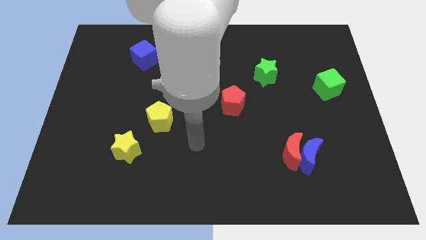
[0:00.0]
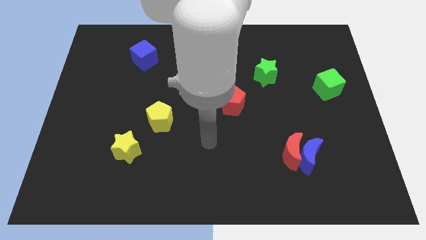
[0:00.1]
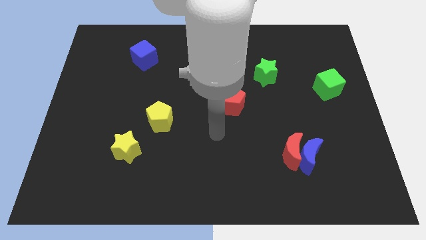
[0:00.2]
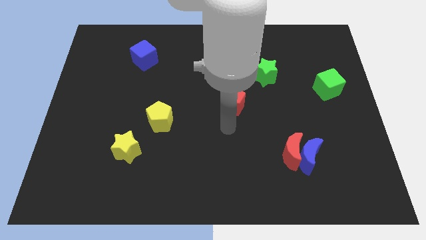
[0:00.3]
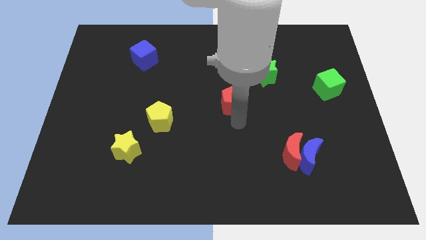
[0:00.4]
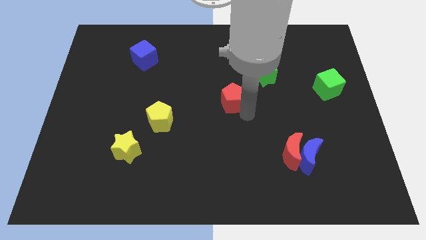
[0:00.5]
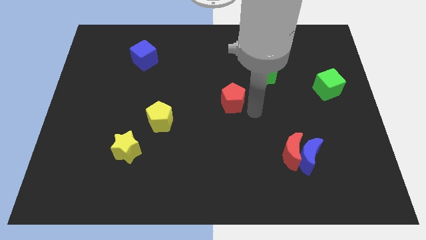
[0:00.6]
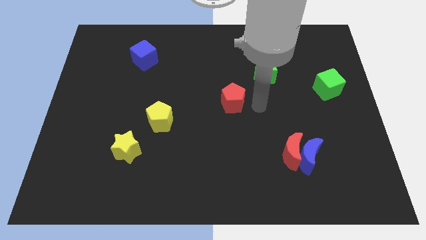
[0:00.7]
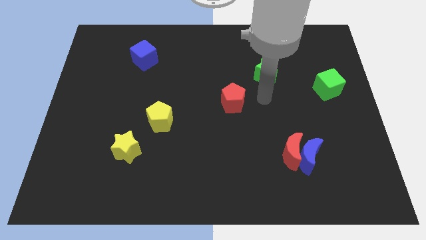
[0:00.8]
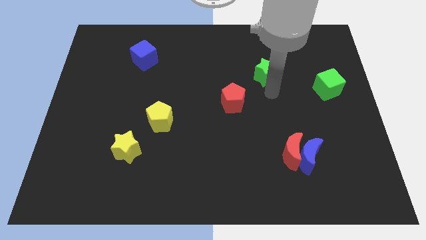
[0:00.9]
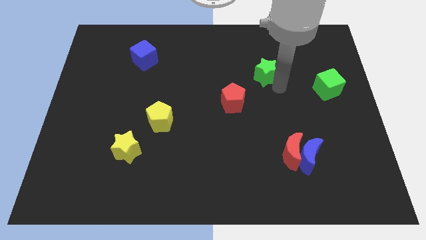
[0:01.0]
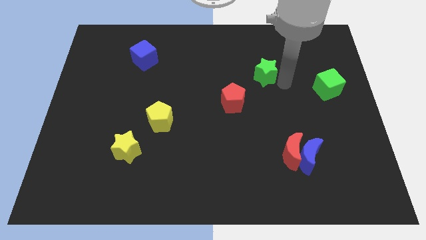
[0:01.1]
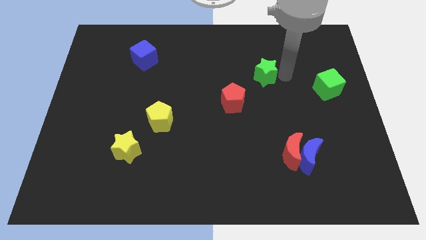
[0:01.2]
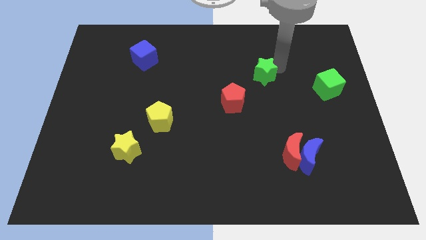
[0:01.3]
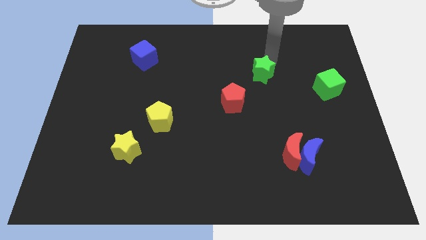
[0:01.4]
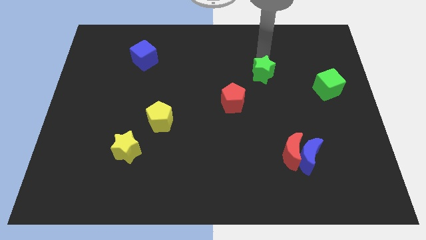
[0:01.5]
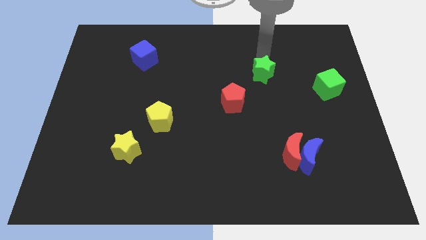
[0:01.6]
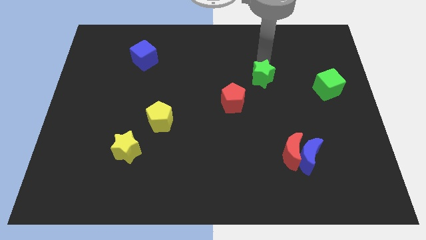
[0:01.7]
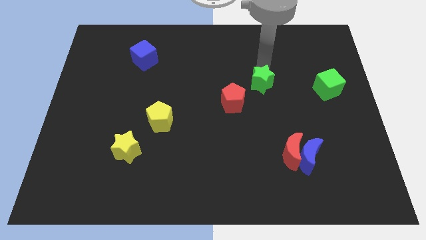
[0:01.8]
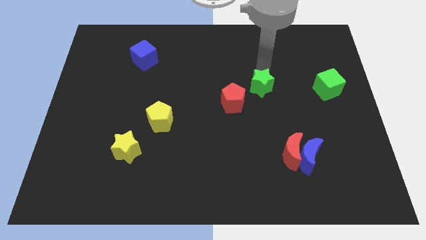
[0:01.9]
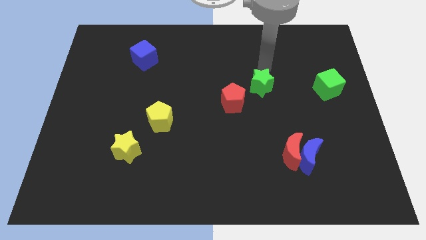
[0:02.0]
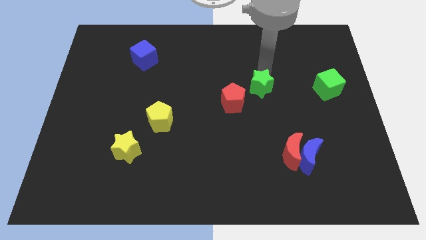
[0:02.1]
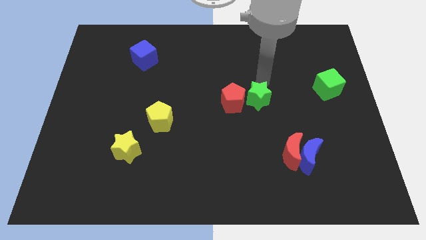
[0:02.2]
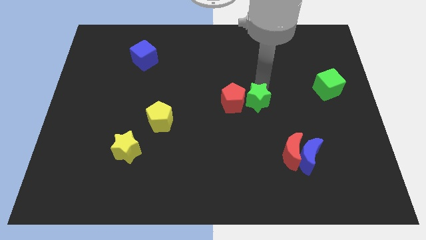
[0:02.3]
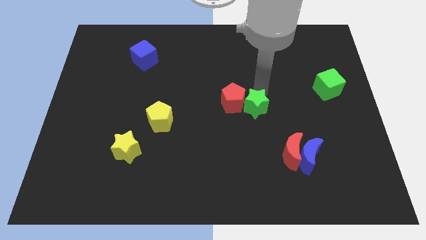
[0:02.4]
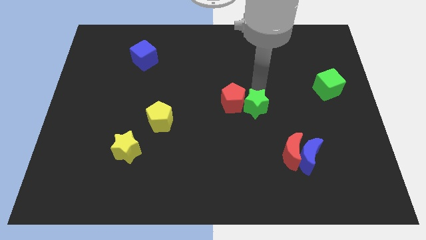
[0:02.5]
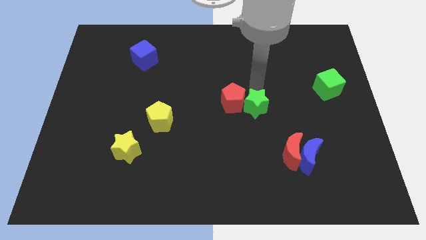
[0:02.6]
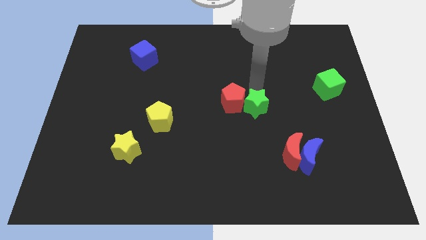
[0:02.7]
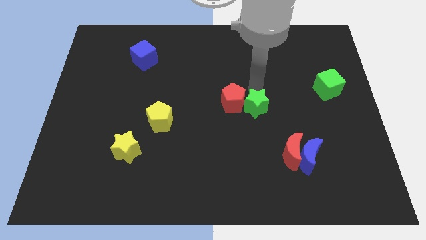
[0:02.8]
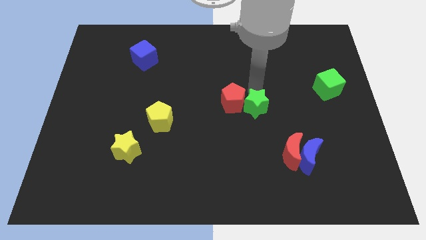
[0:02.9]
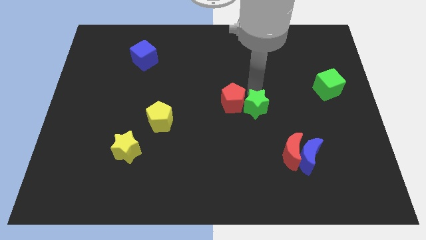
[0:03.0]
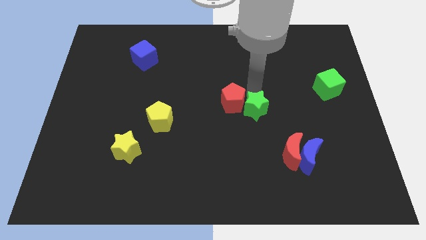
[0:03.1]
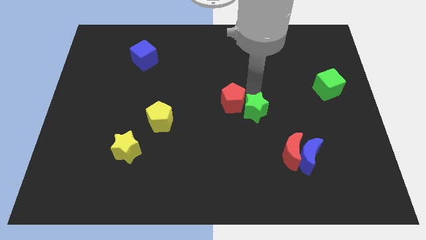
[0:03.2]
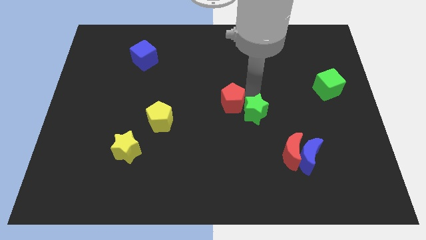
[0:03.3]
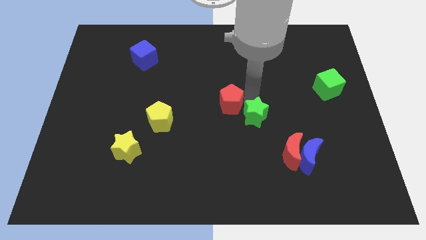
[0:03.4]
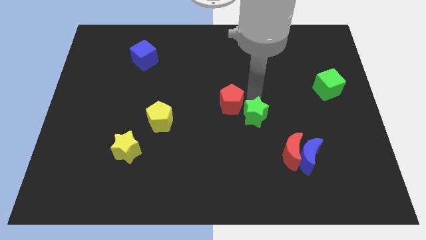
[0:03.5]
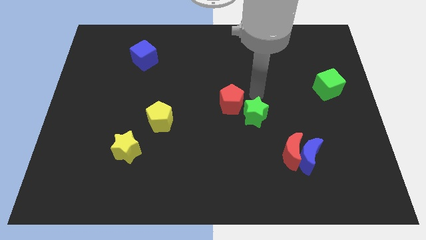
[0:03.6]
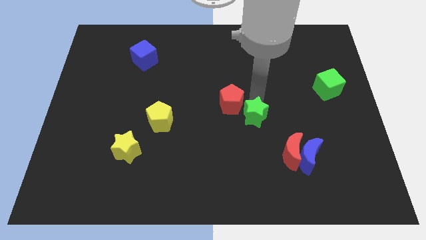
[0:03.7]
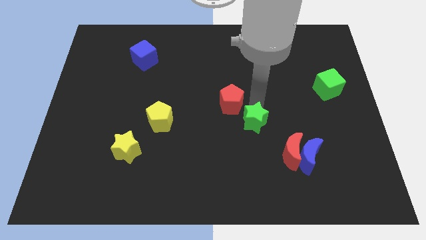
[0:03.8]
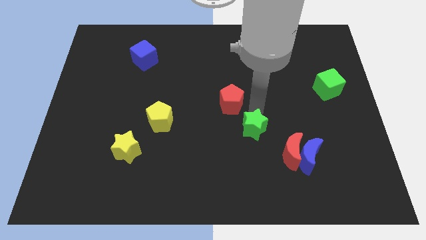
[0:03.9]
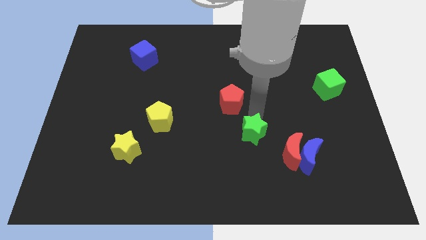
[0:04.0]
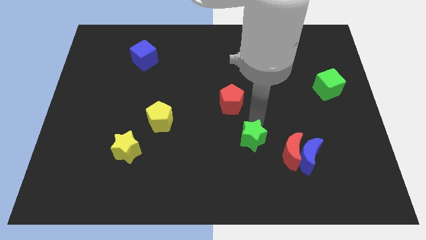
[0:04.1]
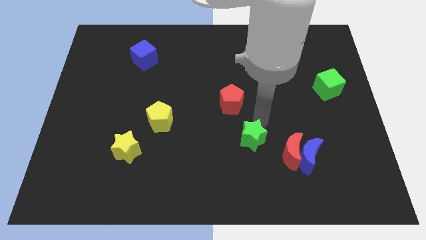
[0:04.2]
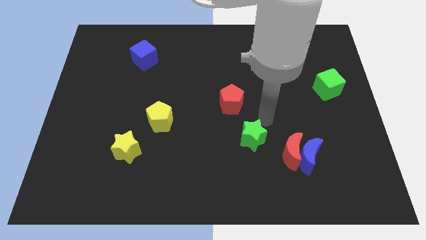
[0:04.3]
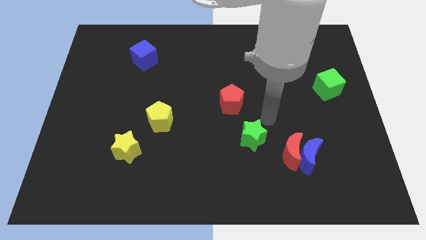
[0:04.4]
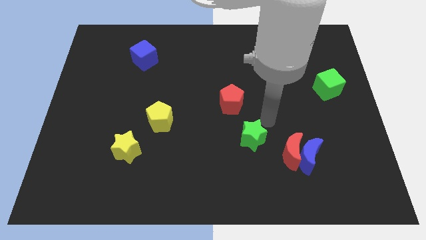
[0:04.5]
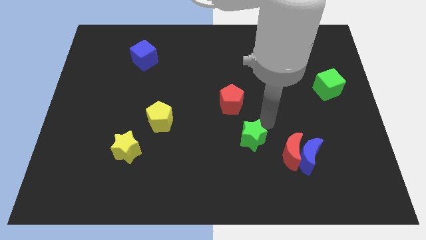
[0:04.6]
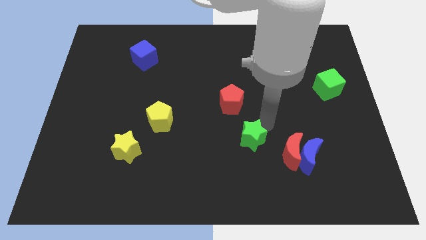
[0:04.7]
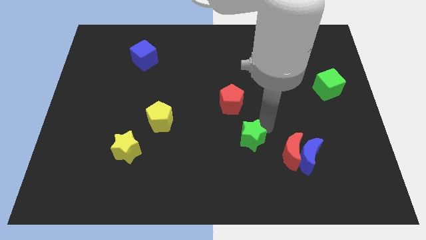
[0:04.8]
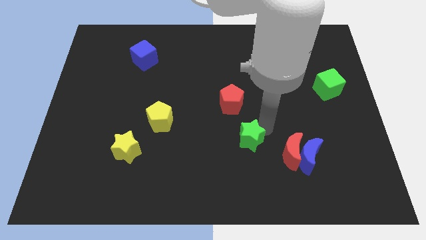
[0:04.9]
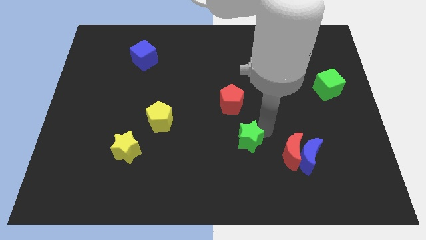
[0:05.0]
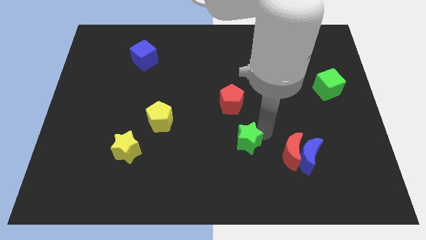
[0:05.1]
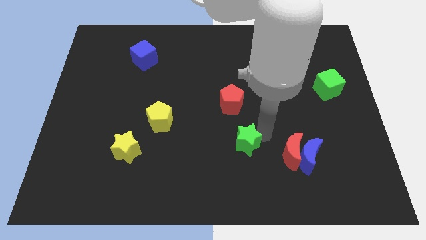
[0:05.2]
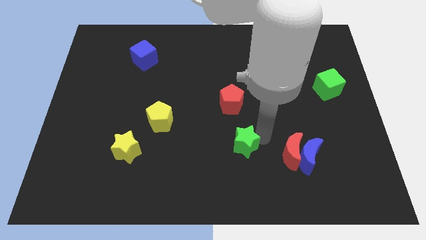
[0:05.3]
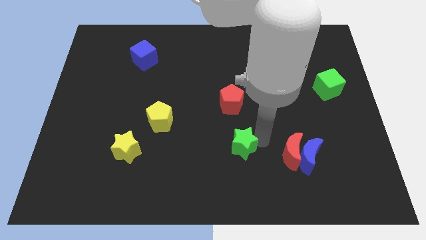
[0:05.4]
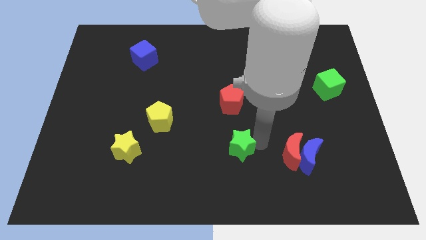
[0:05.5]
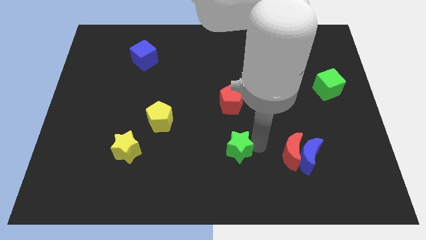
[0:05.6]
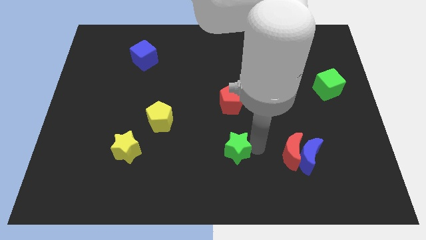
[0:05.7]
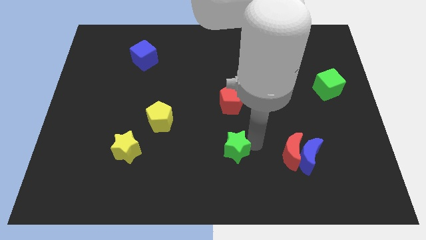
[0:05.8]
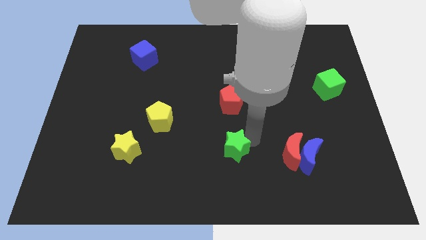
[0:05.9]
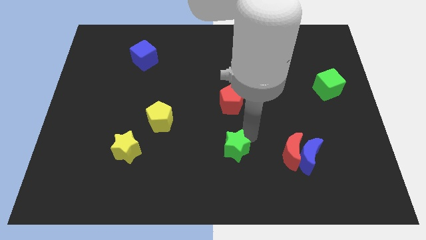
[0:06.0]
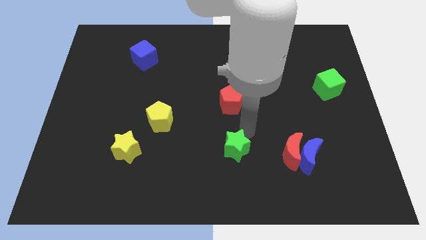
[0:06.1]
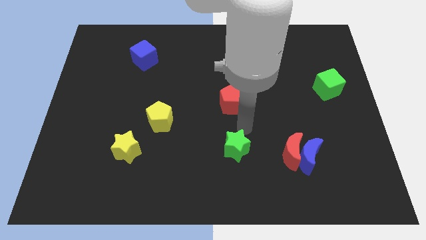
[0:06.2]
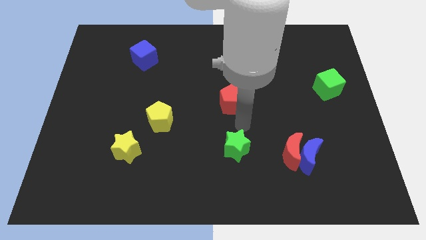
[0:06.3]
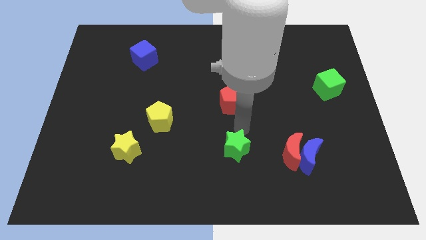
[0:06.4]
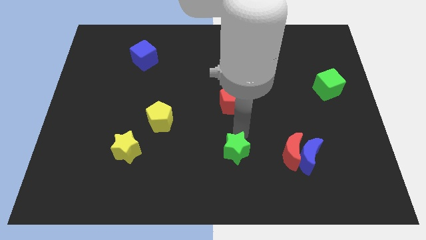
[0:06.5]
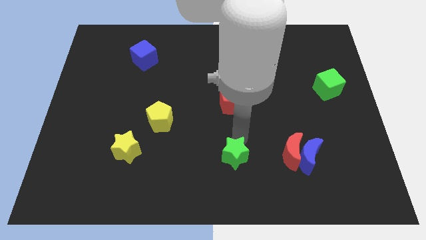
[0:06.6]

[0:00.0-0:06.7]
slide the green star to the bottom
